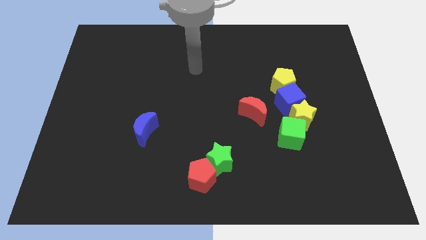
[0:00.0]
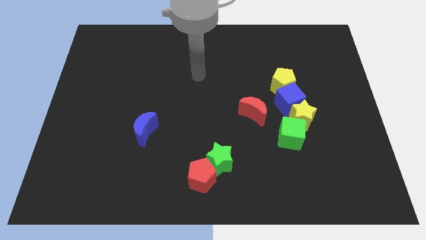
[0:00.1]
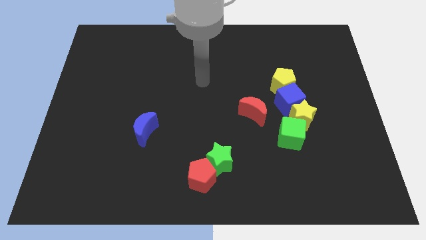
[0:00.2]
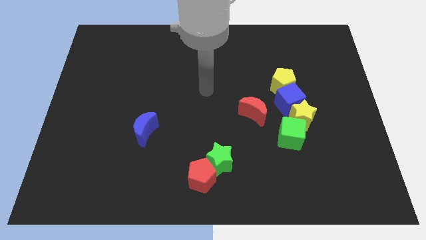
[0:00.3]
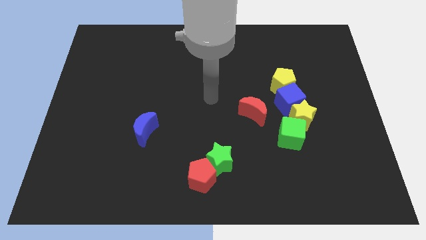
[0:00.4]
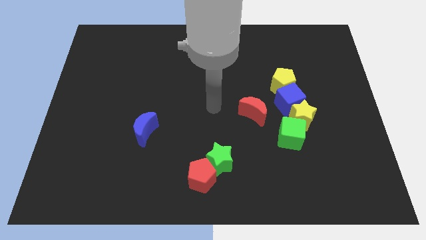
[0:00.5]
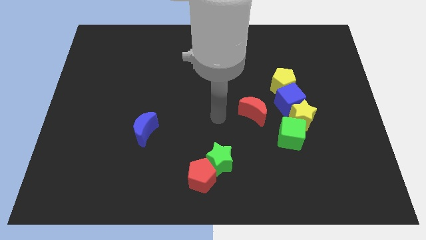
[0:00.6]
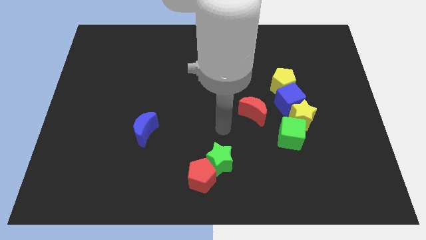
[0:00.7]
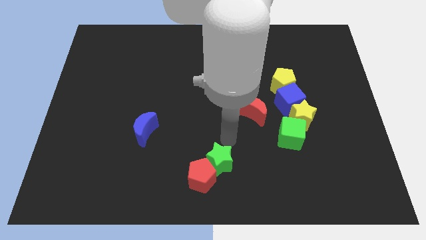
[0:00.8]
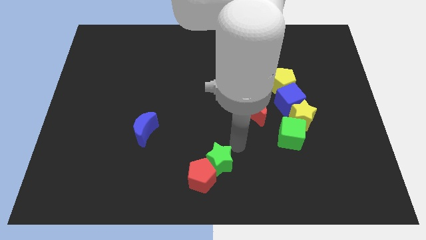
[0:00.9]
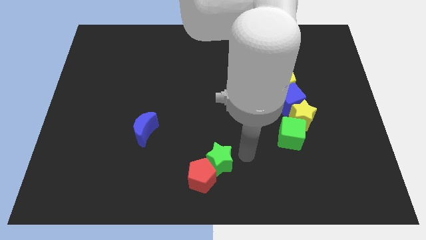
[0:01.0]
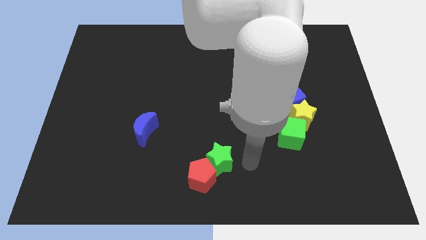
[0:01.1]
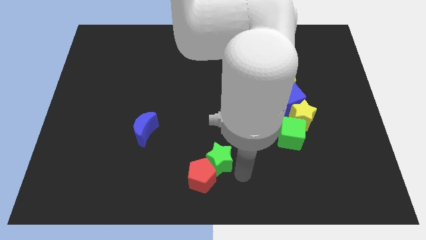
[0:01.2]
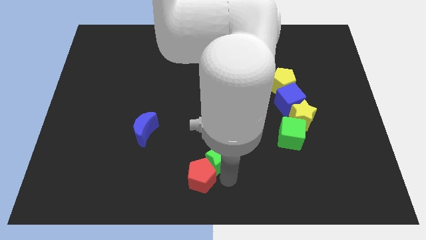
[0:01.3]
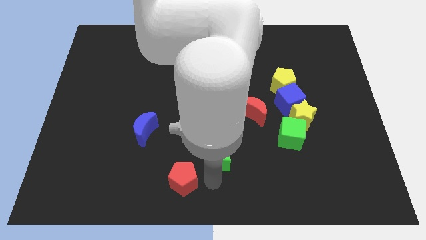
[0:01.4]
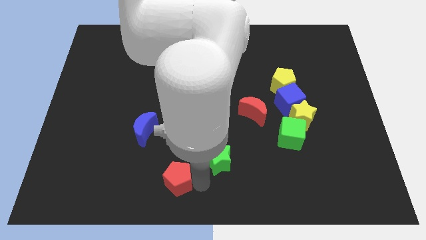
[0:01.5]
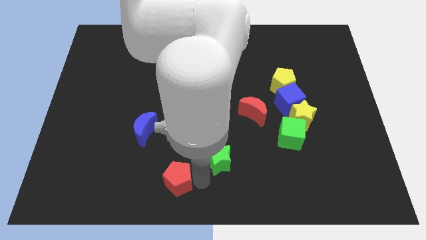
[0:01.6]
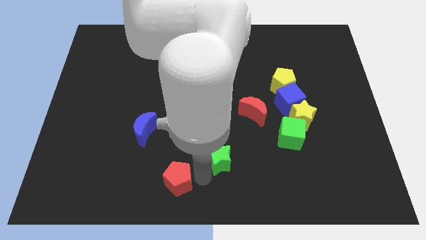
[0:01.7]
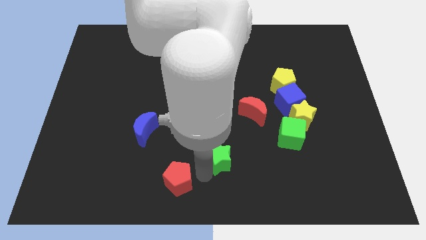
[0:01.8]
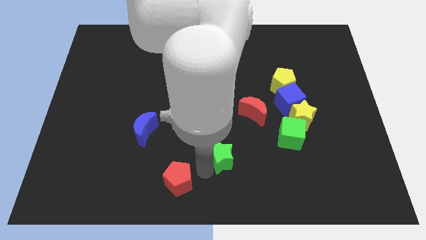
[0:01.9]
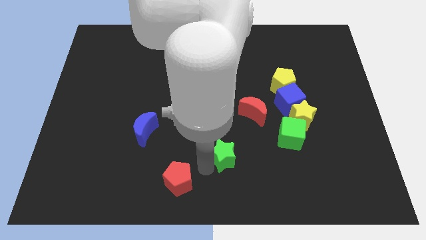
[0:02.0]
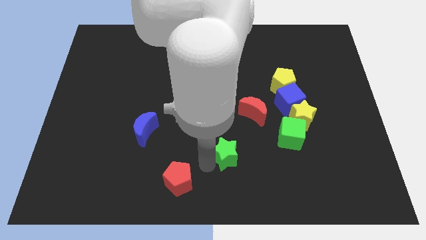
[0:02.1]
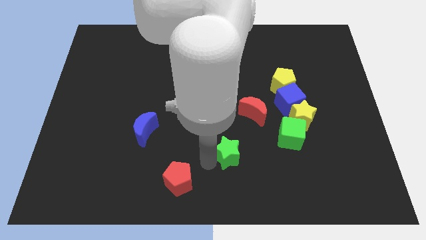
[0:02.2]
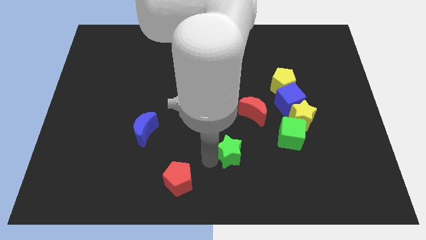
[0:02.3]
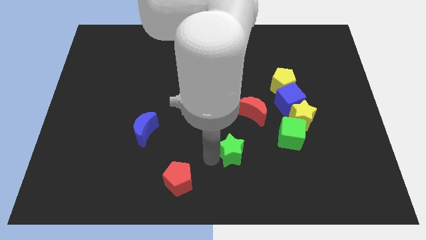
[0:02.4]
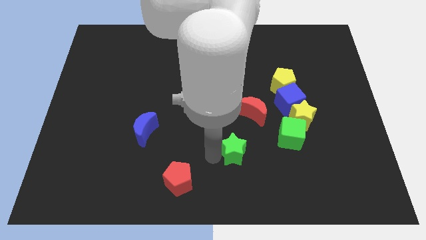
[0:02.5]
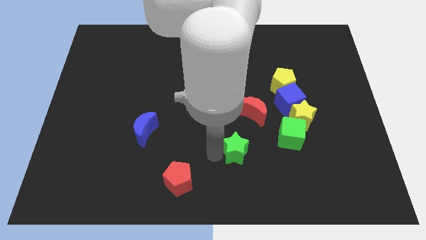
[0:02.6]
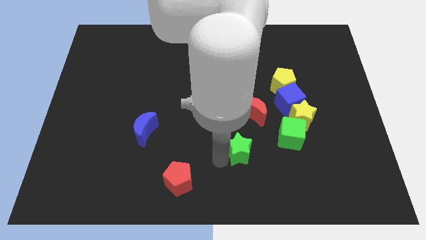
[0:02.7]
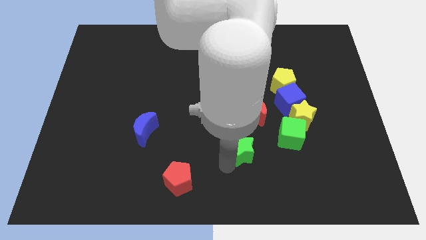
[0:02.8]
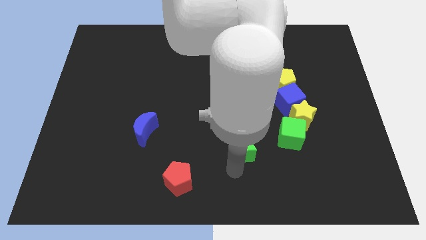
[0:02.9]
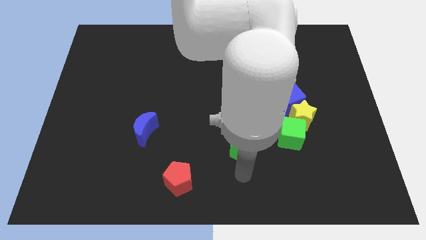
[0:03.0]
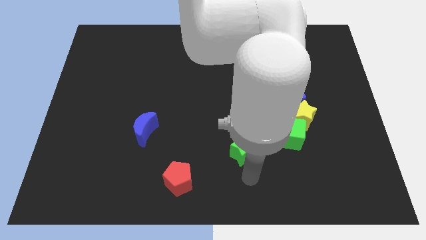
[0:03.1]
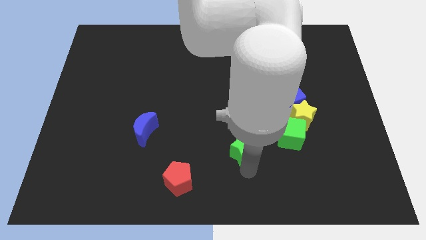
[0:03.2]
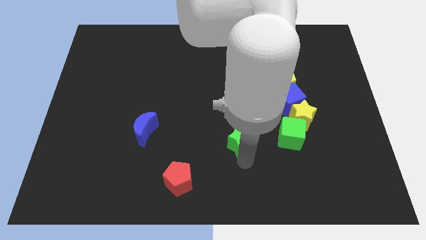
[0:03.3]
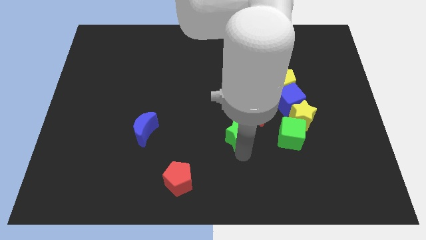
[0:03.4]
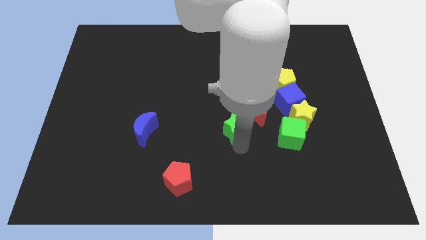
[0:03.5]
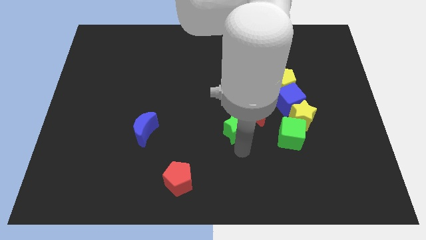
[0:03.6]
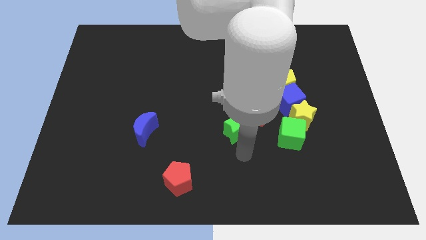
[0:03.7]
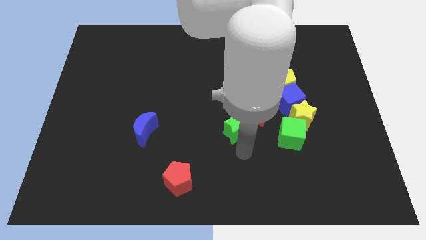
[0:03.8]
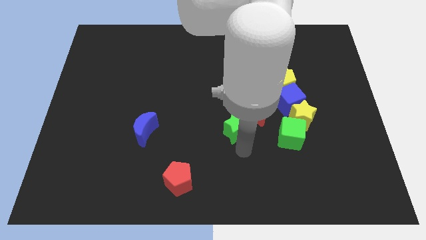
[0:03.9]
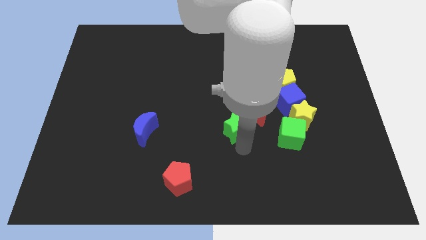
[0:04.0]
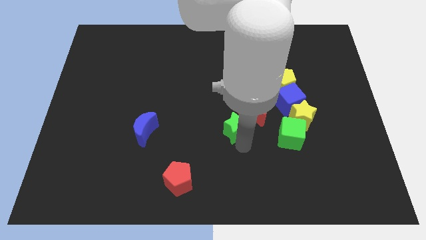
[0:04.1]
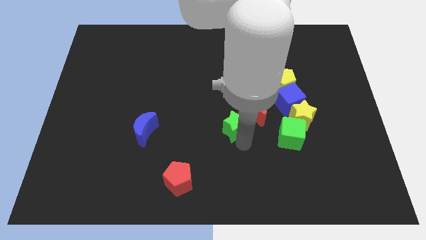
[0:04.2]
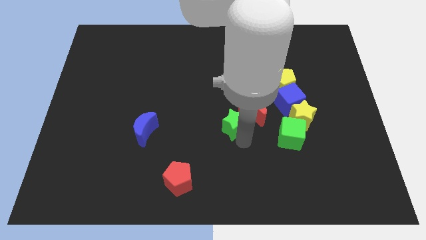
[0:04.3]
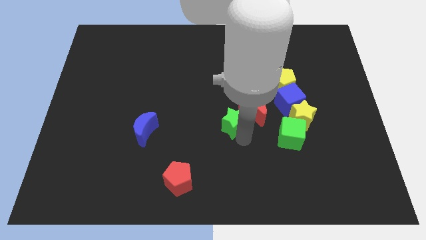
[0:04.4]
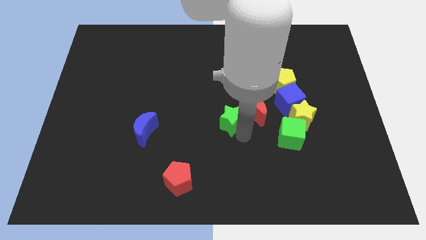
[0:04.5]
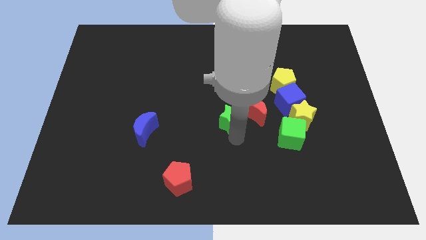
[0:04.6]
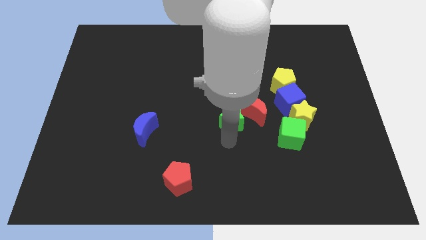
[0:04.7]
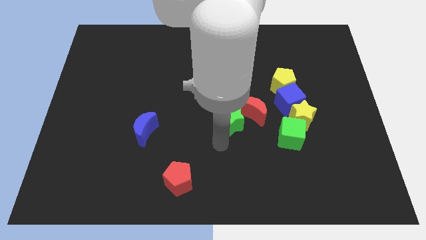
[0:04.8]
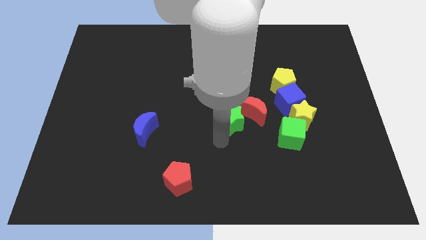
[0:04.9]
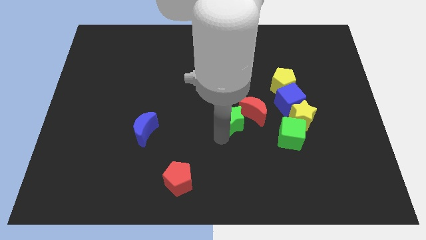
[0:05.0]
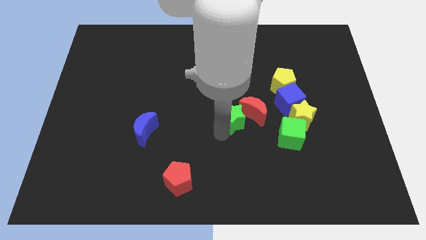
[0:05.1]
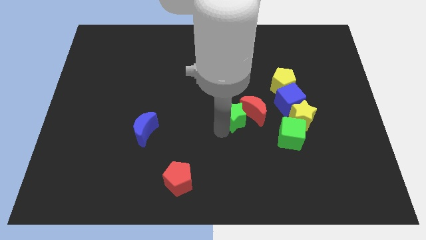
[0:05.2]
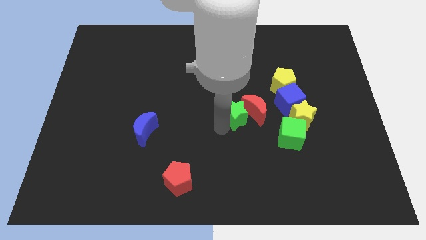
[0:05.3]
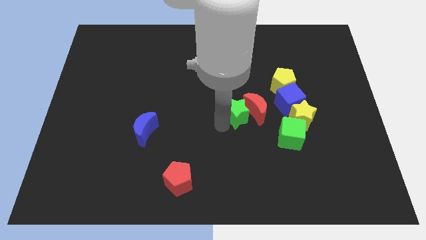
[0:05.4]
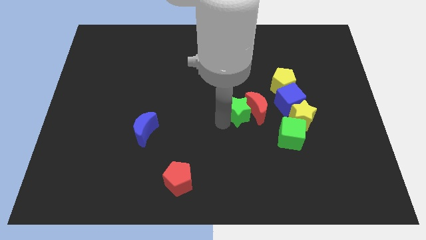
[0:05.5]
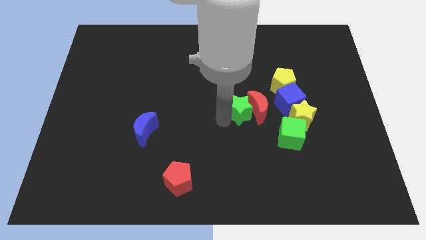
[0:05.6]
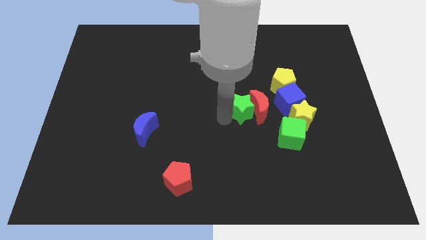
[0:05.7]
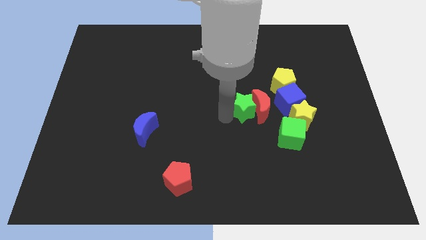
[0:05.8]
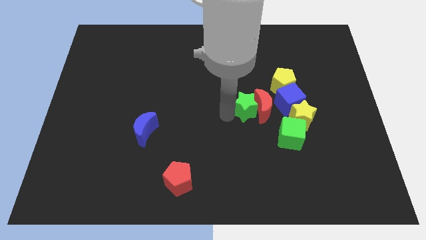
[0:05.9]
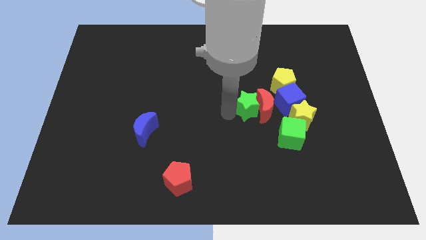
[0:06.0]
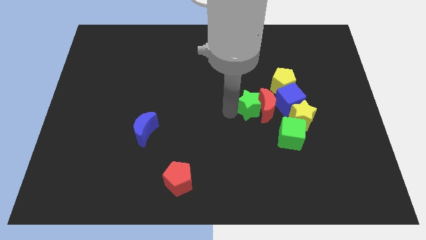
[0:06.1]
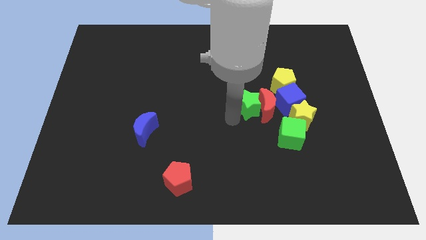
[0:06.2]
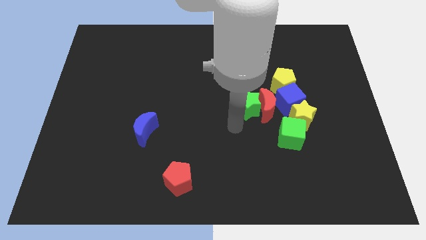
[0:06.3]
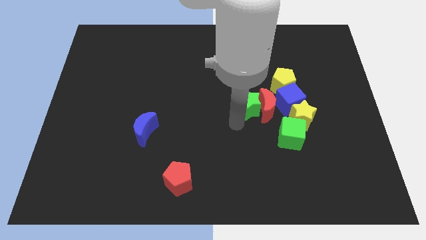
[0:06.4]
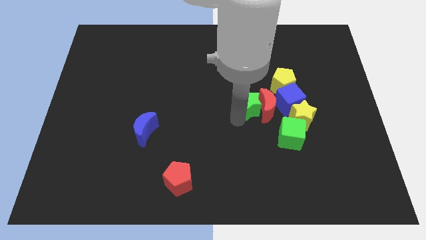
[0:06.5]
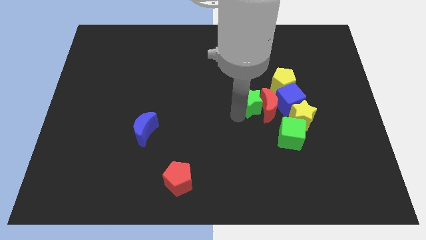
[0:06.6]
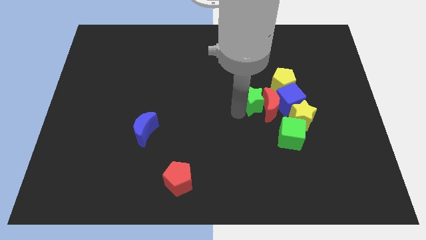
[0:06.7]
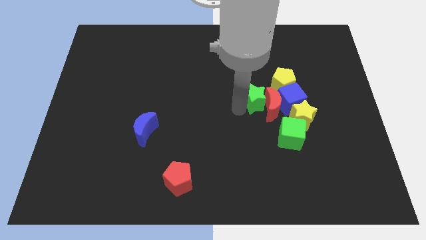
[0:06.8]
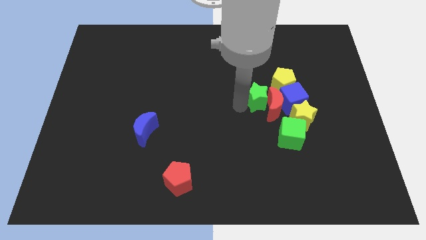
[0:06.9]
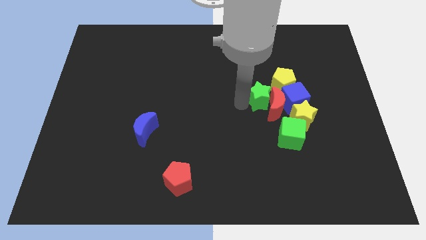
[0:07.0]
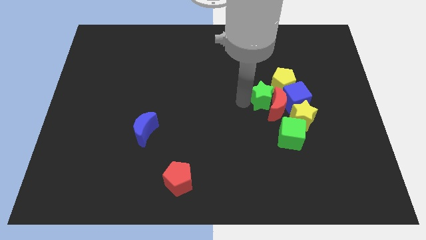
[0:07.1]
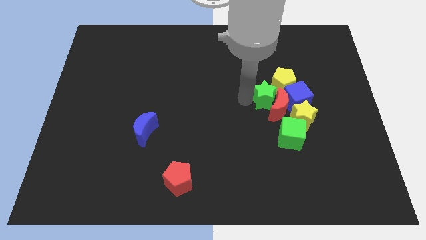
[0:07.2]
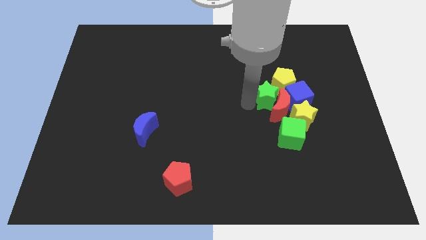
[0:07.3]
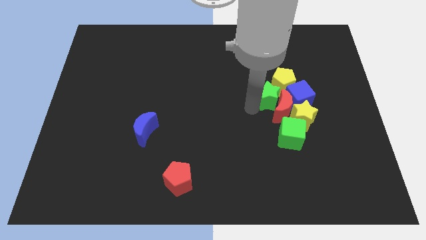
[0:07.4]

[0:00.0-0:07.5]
slide the green star up and right

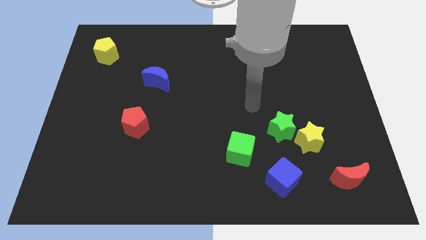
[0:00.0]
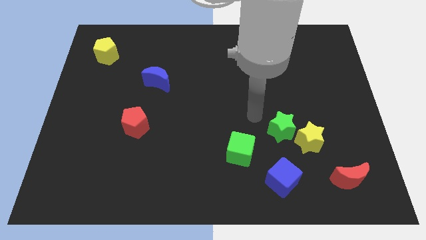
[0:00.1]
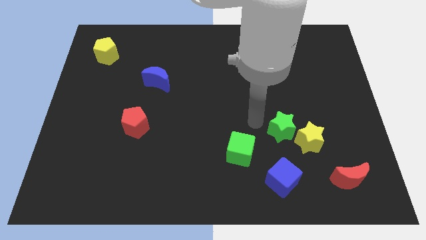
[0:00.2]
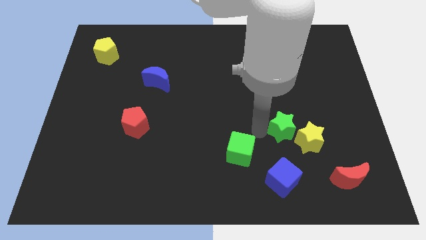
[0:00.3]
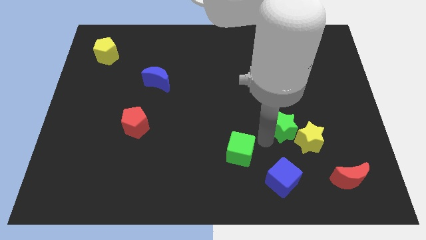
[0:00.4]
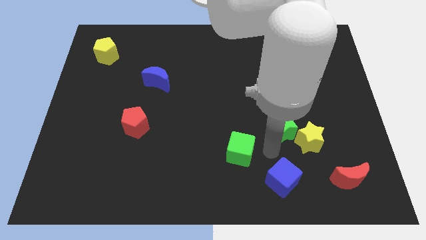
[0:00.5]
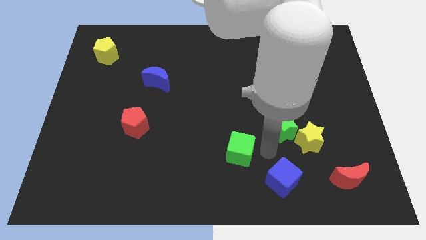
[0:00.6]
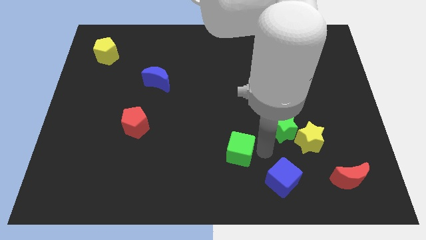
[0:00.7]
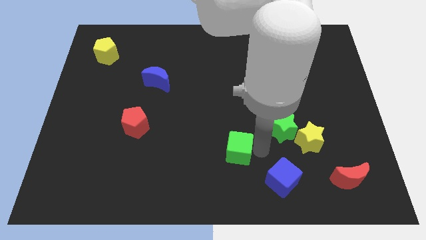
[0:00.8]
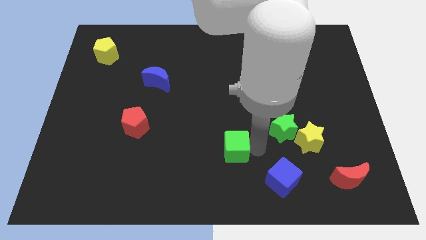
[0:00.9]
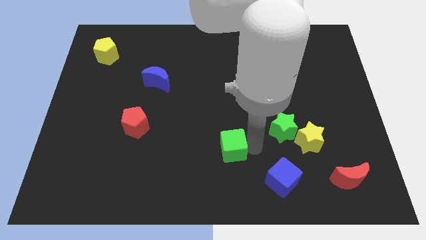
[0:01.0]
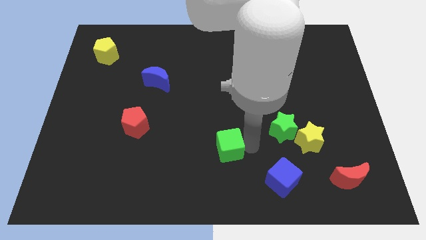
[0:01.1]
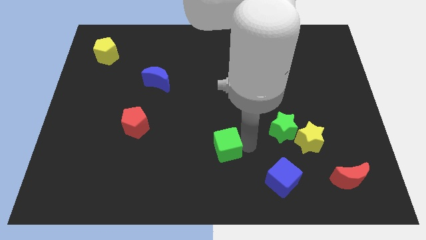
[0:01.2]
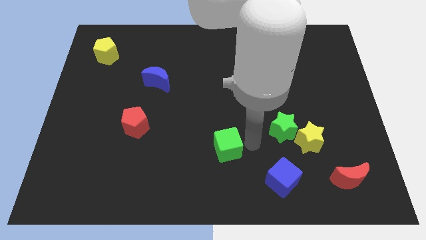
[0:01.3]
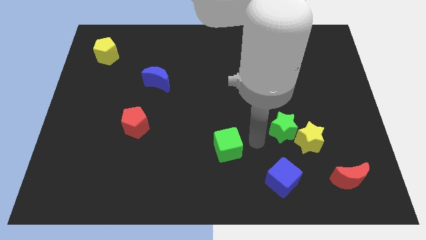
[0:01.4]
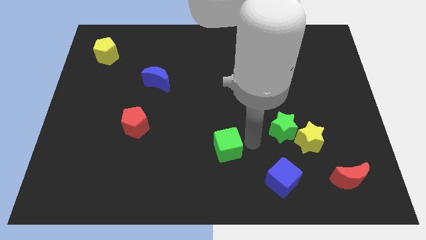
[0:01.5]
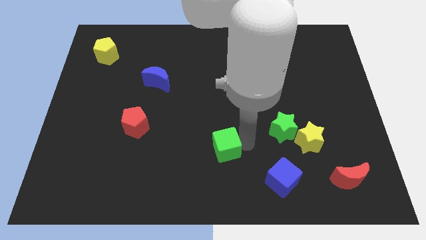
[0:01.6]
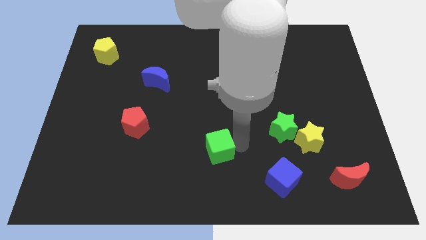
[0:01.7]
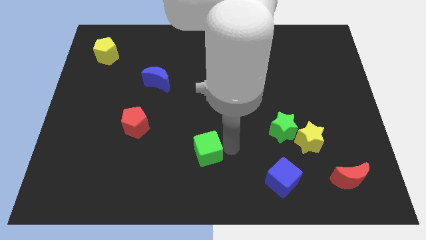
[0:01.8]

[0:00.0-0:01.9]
slightly move the green cube to the left
